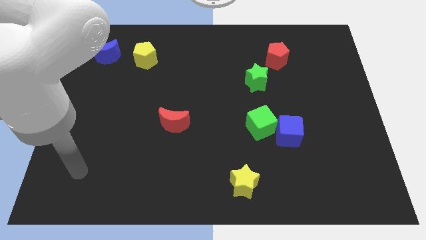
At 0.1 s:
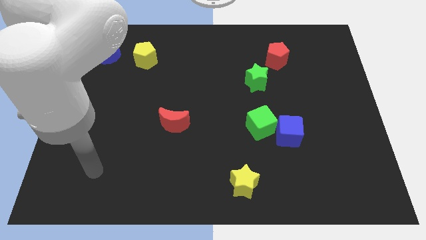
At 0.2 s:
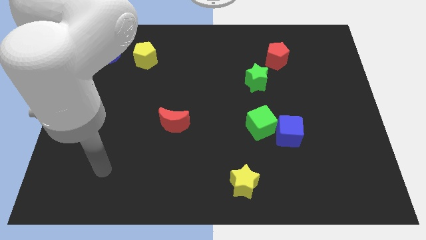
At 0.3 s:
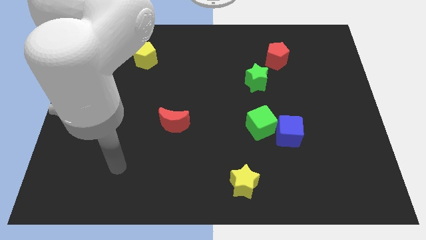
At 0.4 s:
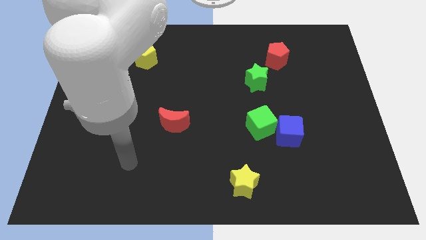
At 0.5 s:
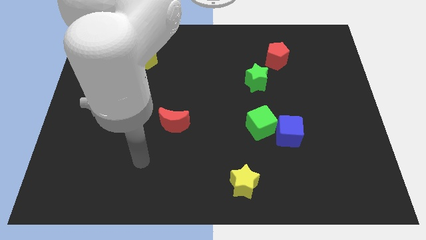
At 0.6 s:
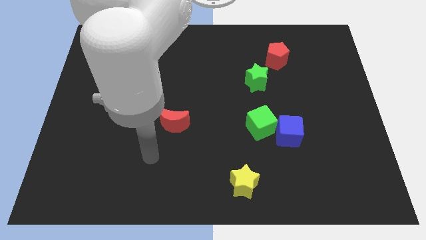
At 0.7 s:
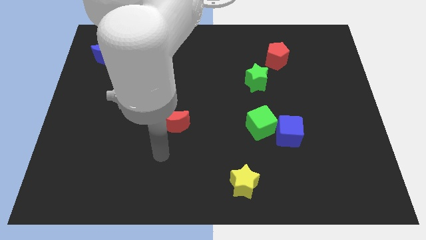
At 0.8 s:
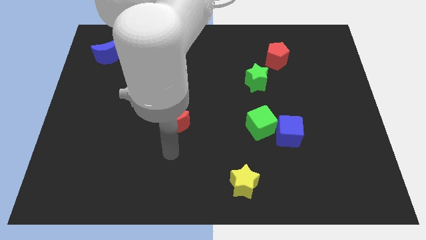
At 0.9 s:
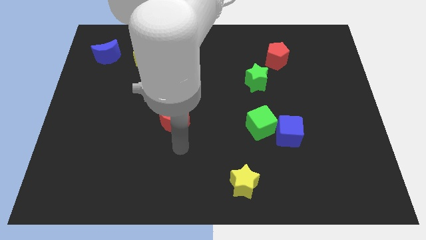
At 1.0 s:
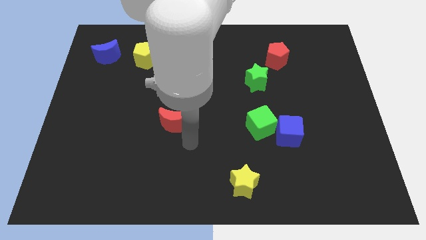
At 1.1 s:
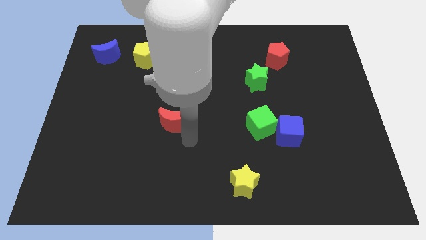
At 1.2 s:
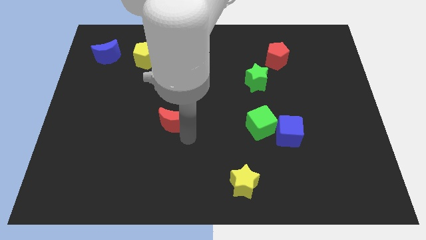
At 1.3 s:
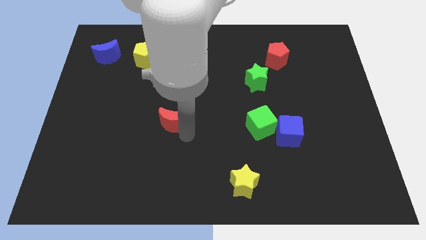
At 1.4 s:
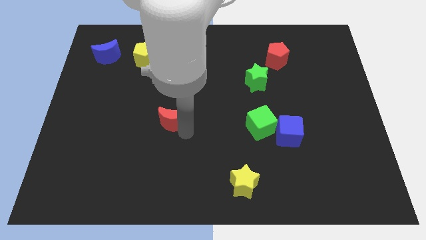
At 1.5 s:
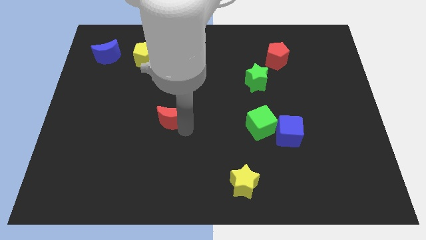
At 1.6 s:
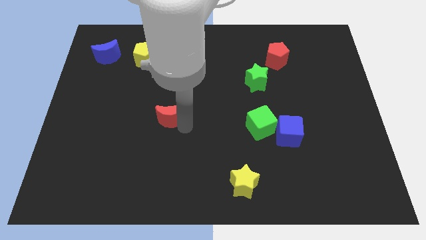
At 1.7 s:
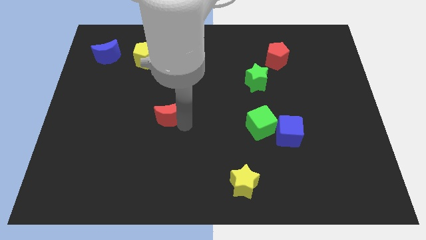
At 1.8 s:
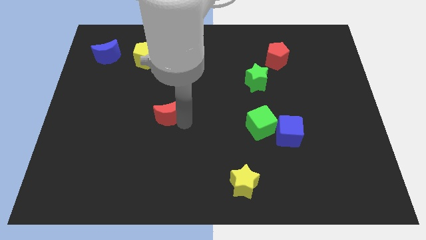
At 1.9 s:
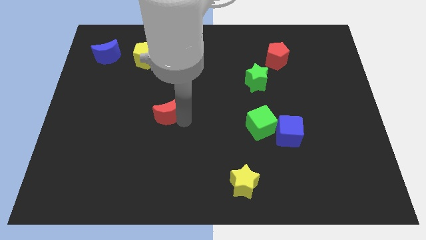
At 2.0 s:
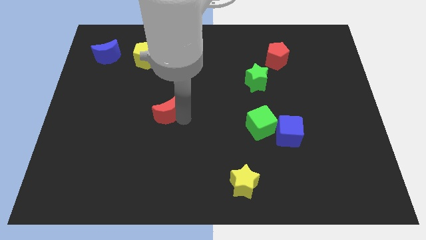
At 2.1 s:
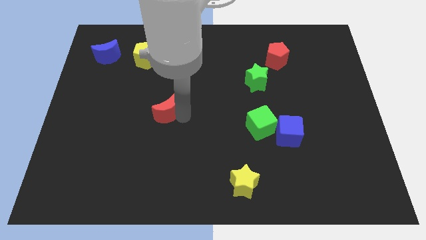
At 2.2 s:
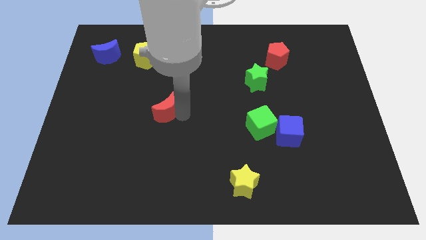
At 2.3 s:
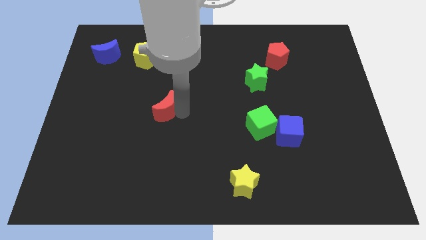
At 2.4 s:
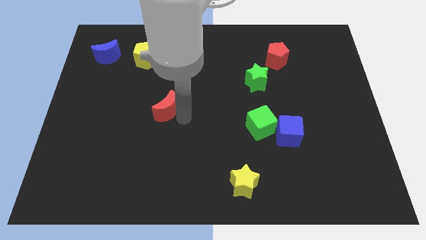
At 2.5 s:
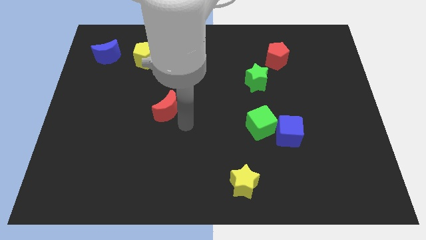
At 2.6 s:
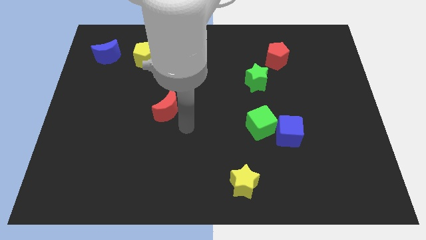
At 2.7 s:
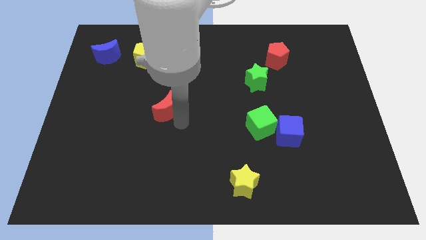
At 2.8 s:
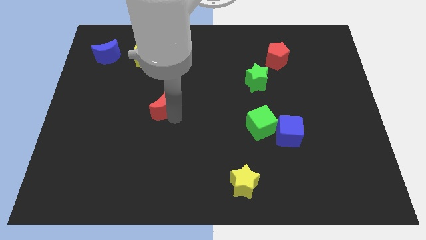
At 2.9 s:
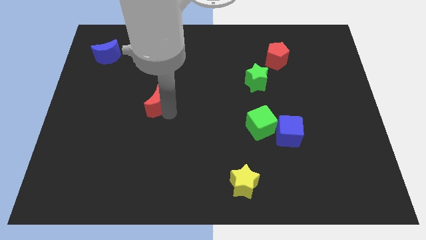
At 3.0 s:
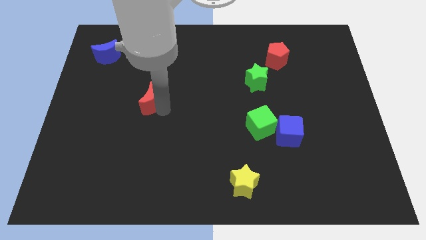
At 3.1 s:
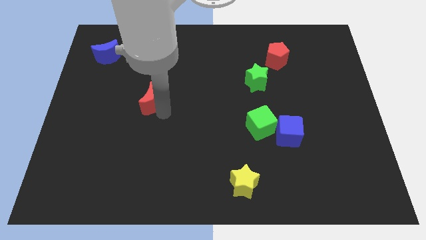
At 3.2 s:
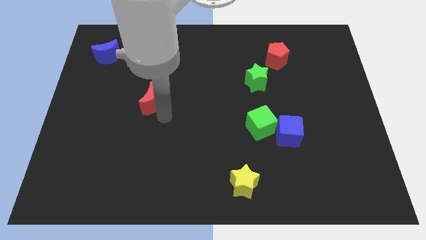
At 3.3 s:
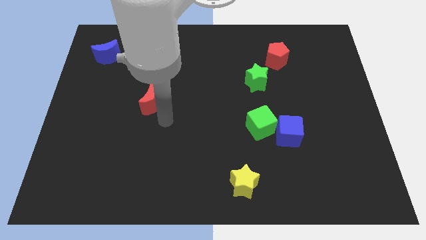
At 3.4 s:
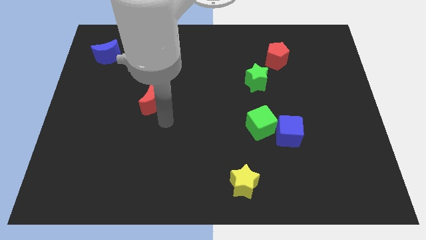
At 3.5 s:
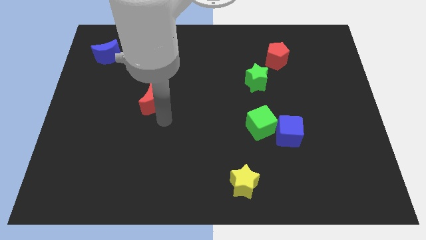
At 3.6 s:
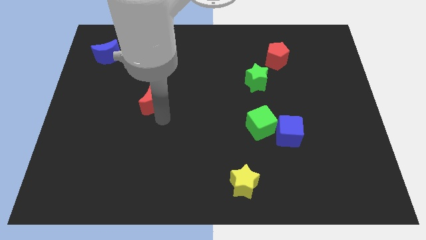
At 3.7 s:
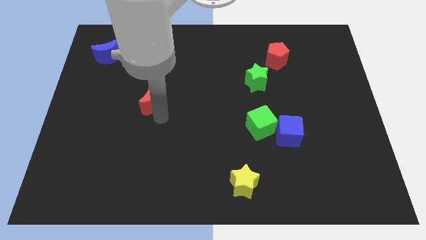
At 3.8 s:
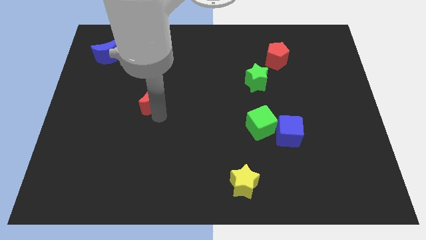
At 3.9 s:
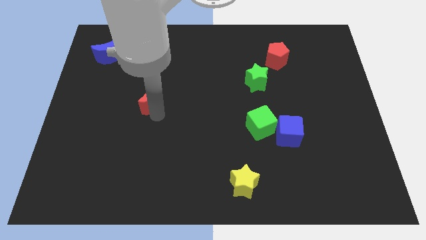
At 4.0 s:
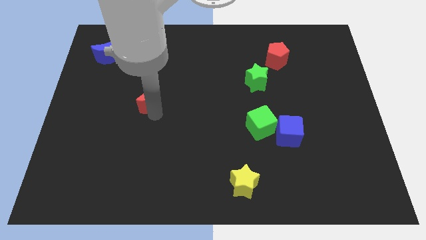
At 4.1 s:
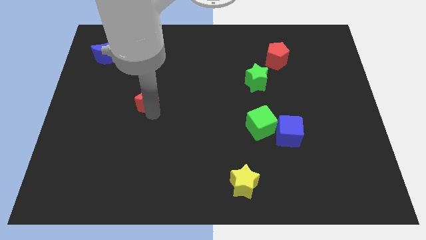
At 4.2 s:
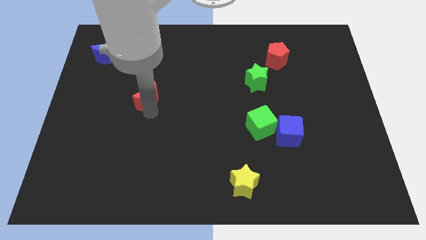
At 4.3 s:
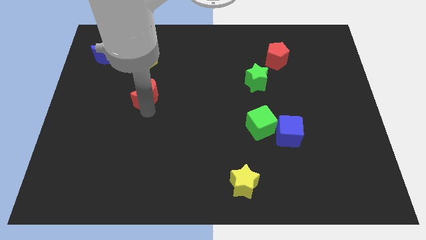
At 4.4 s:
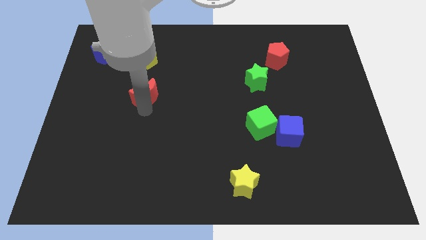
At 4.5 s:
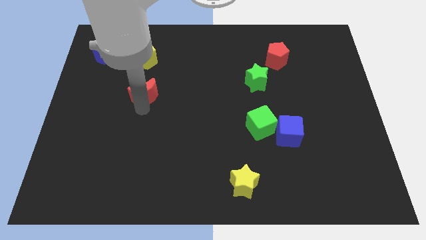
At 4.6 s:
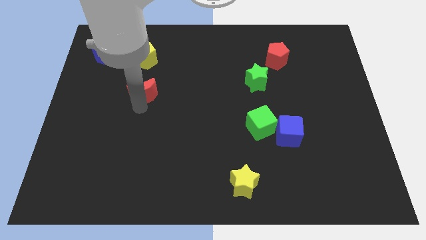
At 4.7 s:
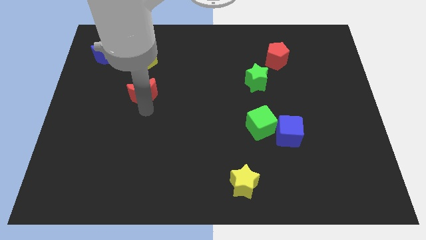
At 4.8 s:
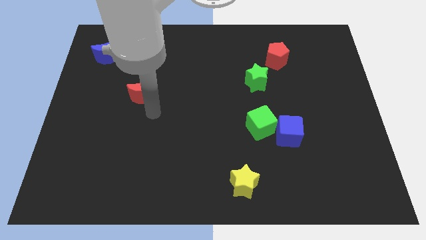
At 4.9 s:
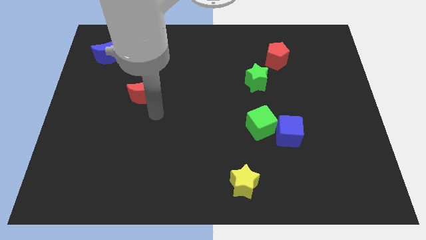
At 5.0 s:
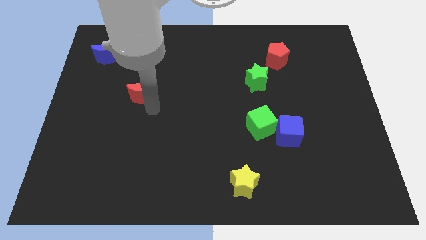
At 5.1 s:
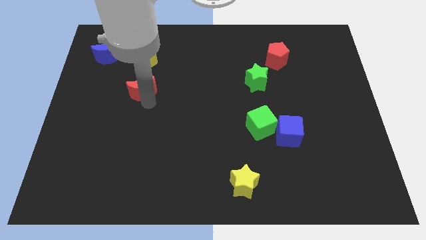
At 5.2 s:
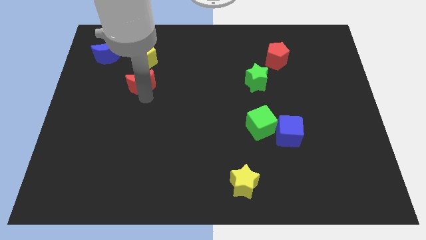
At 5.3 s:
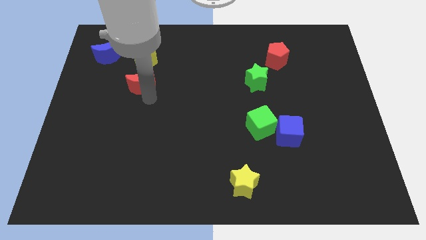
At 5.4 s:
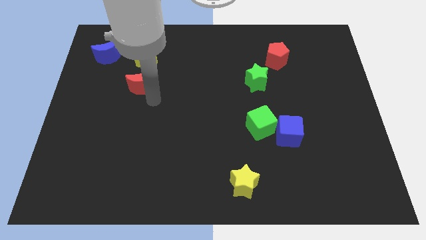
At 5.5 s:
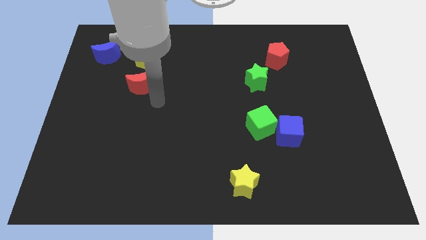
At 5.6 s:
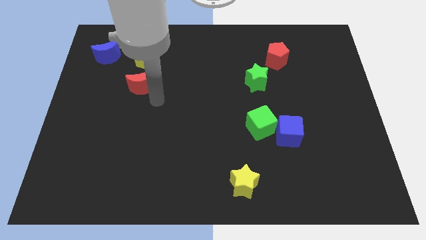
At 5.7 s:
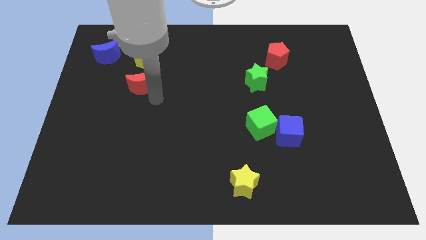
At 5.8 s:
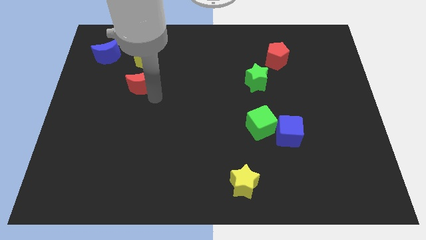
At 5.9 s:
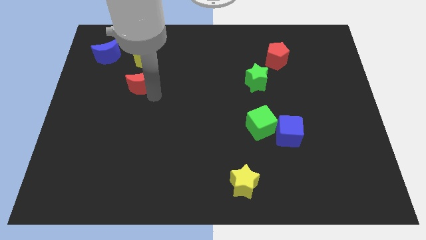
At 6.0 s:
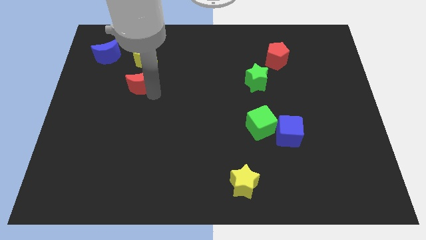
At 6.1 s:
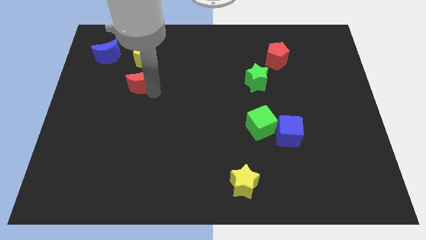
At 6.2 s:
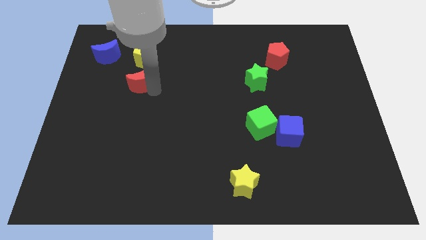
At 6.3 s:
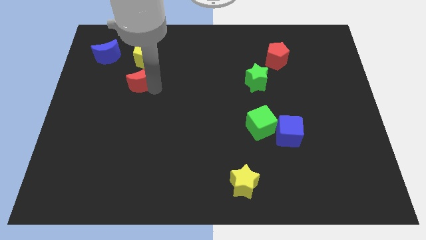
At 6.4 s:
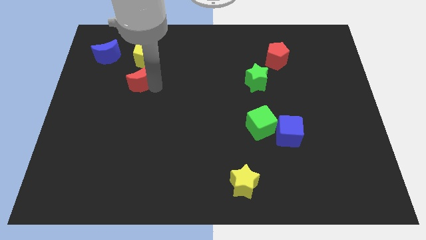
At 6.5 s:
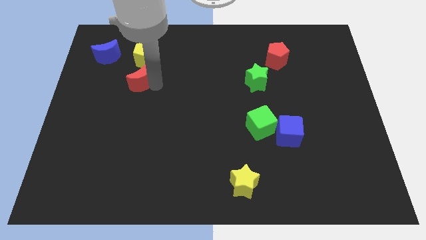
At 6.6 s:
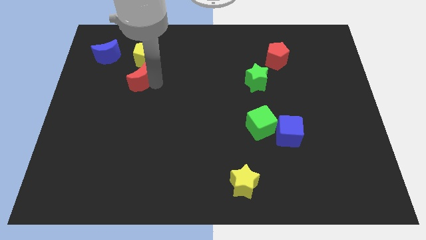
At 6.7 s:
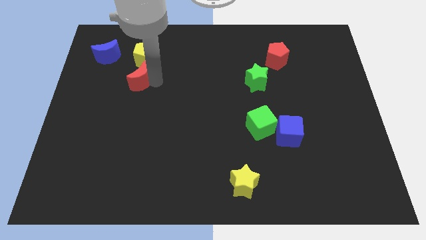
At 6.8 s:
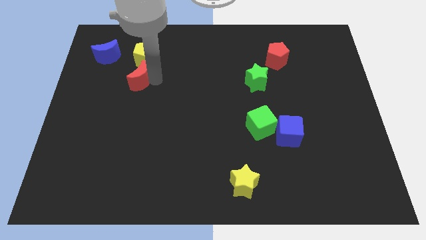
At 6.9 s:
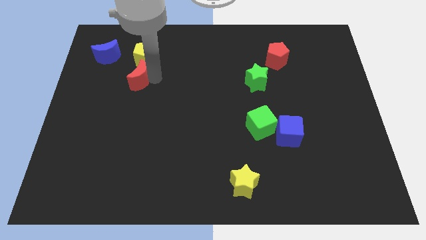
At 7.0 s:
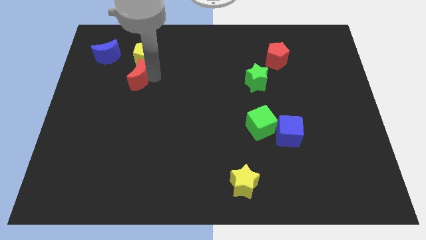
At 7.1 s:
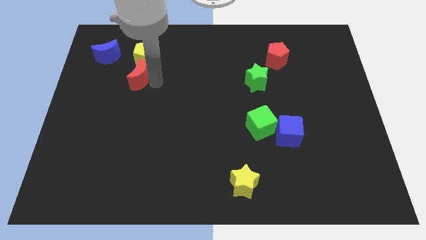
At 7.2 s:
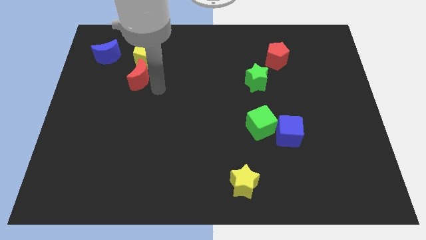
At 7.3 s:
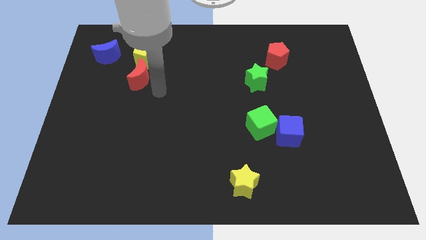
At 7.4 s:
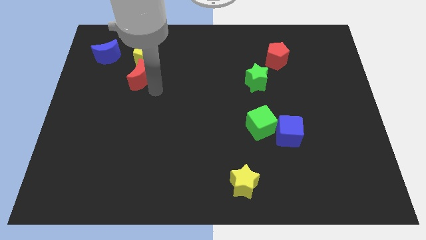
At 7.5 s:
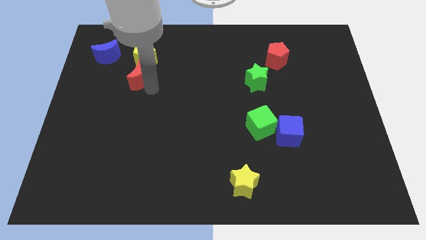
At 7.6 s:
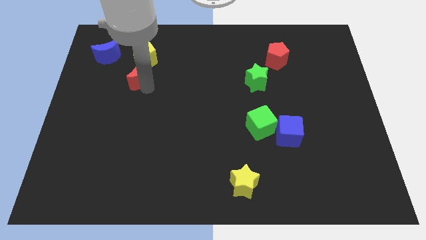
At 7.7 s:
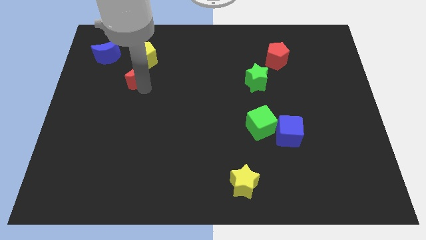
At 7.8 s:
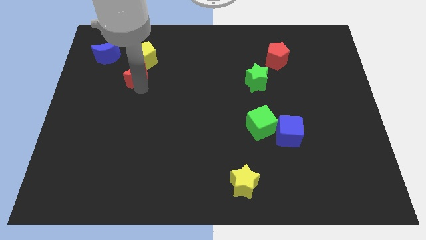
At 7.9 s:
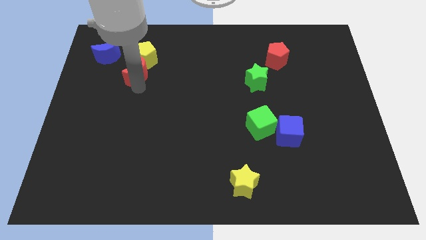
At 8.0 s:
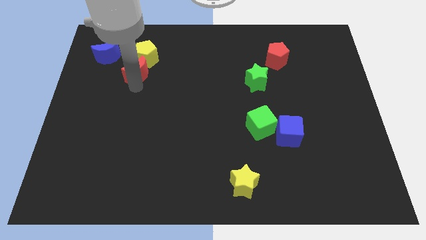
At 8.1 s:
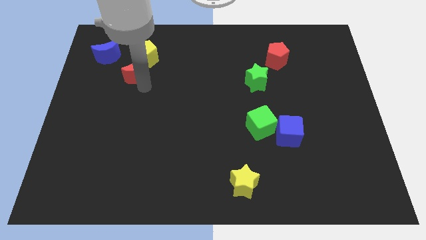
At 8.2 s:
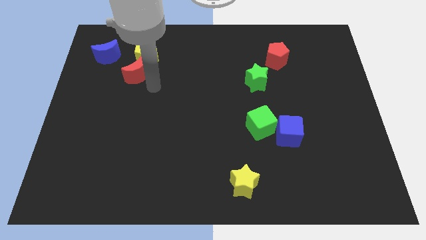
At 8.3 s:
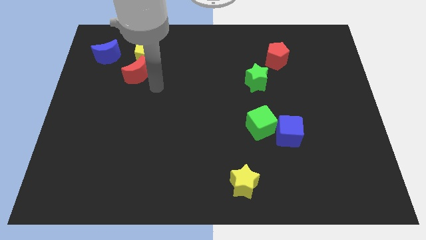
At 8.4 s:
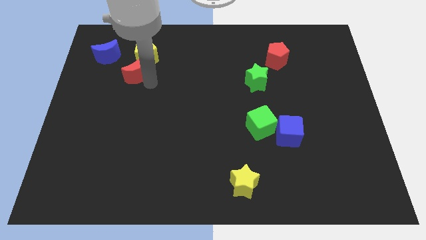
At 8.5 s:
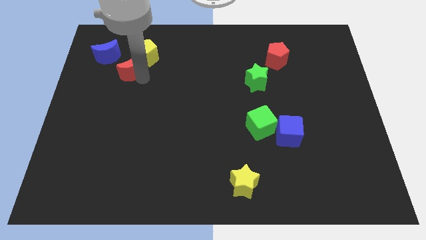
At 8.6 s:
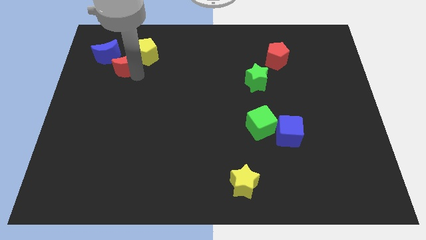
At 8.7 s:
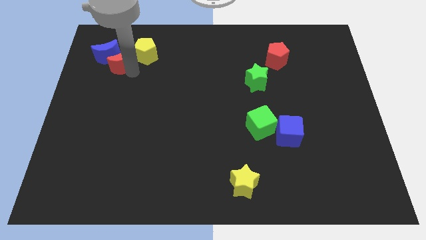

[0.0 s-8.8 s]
slide the red moon to the blue moon
